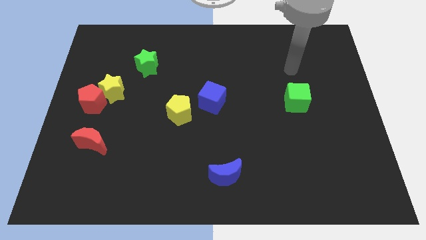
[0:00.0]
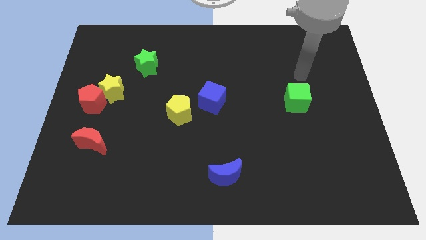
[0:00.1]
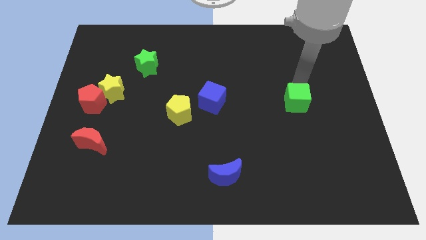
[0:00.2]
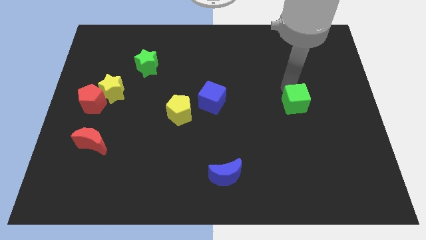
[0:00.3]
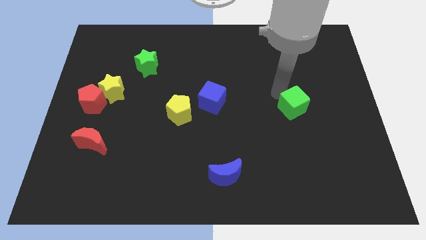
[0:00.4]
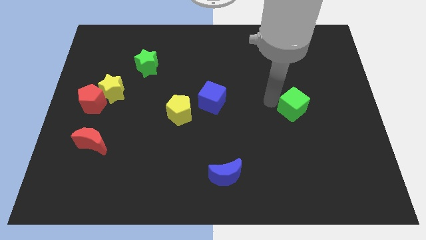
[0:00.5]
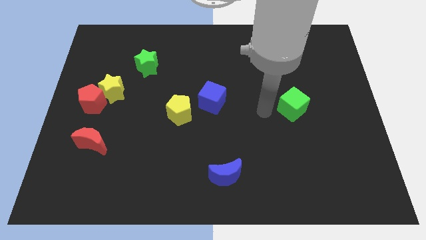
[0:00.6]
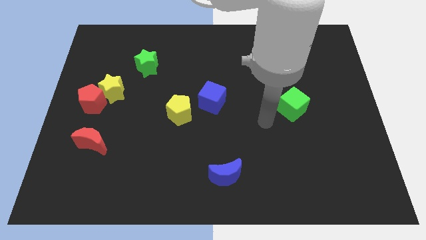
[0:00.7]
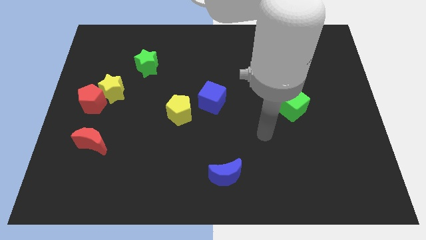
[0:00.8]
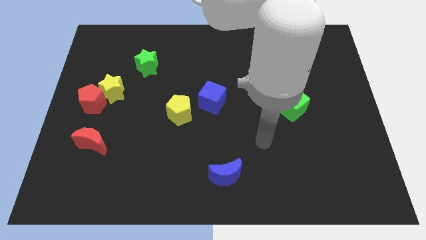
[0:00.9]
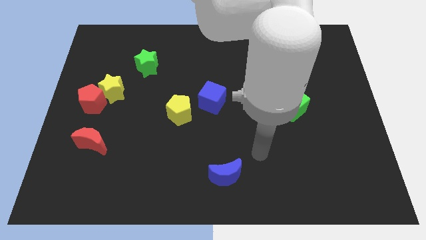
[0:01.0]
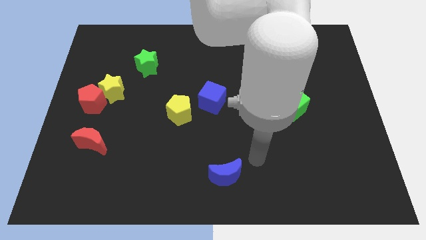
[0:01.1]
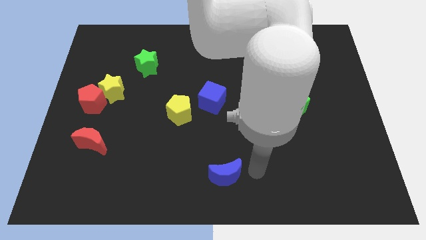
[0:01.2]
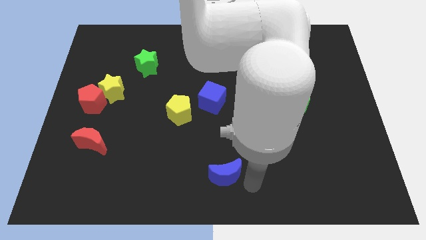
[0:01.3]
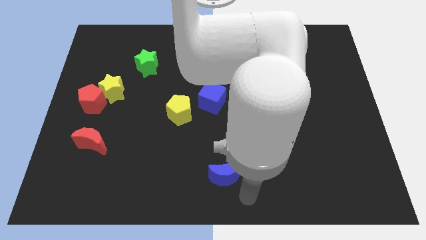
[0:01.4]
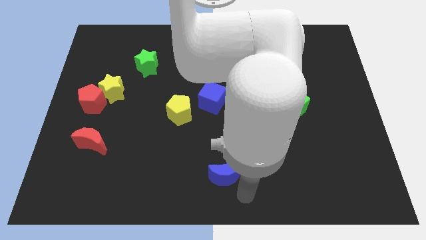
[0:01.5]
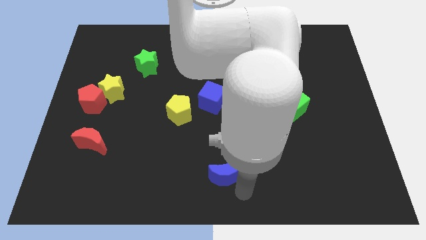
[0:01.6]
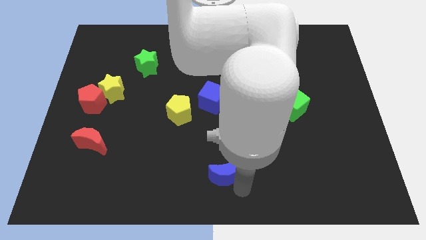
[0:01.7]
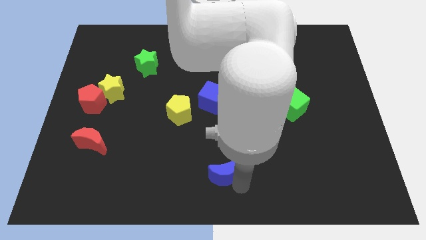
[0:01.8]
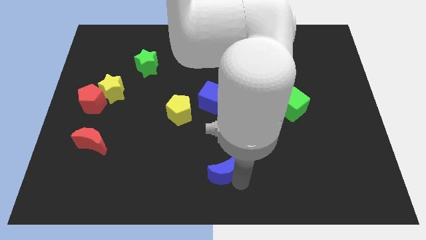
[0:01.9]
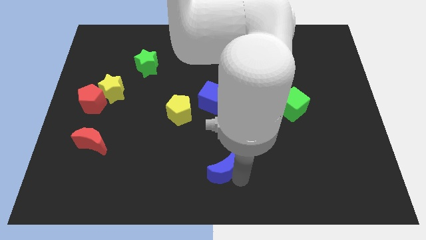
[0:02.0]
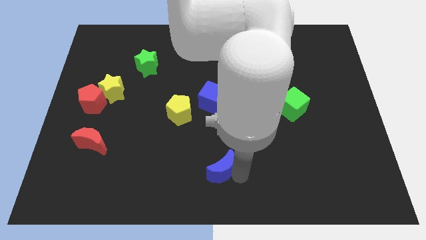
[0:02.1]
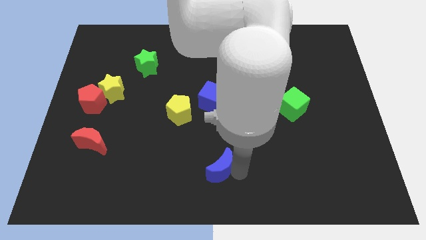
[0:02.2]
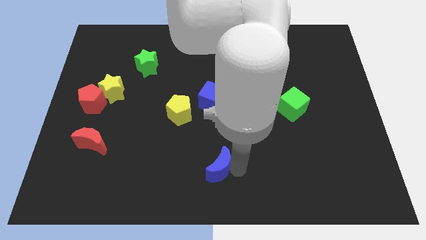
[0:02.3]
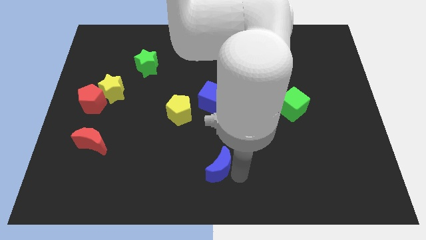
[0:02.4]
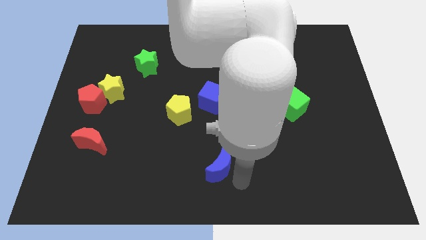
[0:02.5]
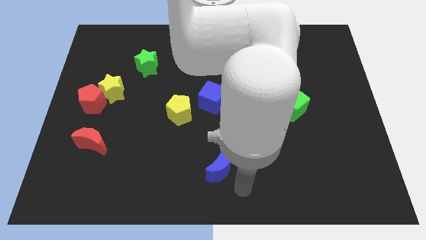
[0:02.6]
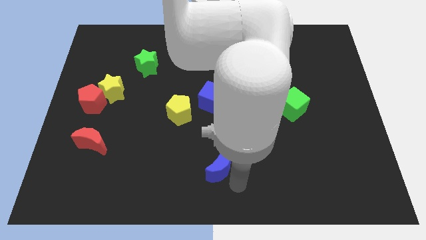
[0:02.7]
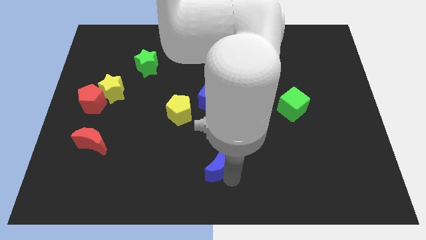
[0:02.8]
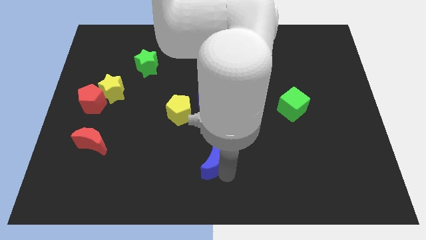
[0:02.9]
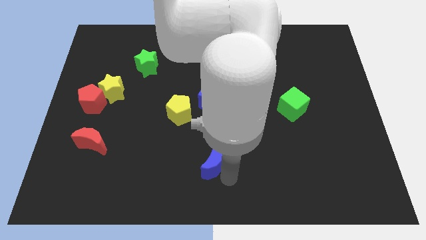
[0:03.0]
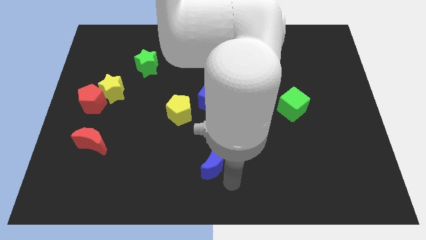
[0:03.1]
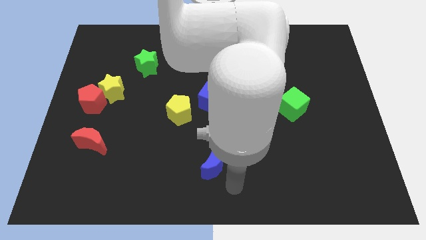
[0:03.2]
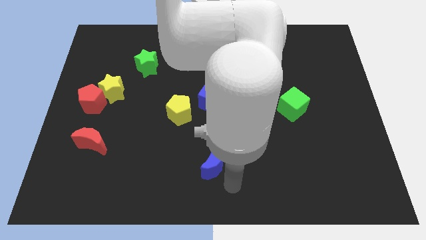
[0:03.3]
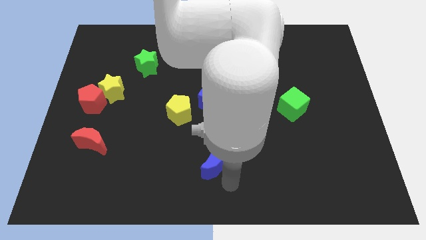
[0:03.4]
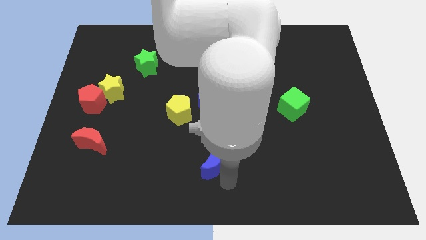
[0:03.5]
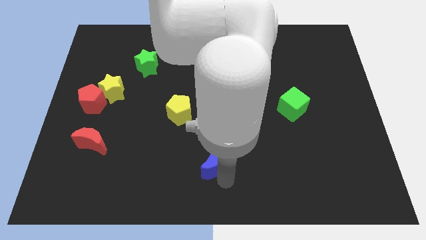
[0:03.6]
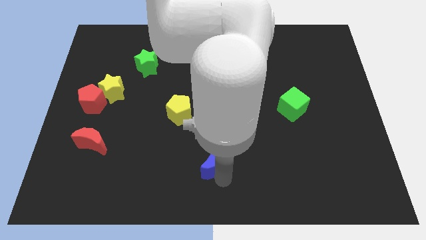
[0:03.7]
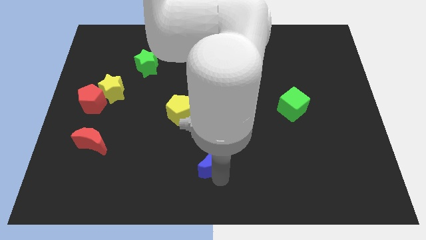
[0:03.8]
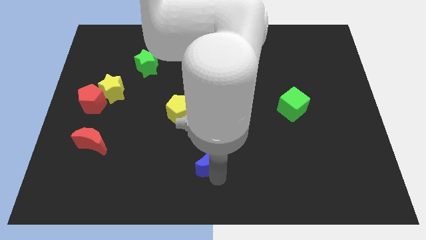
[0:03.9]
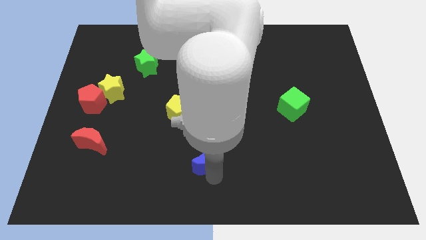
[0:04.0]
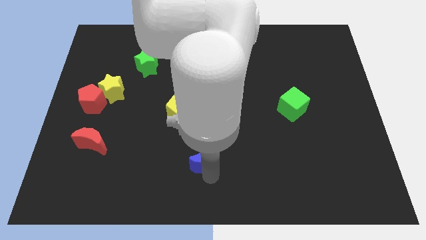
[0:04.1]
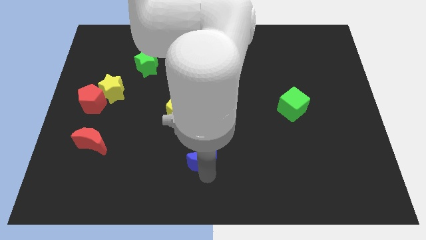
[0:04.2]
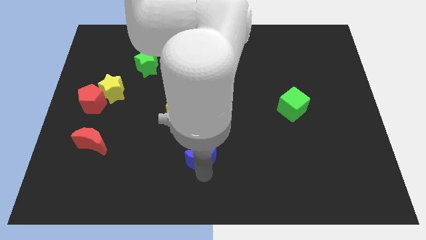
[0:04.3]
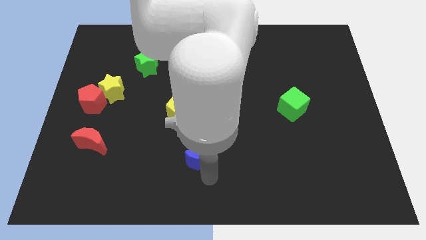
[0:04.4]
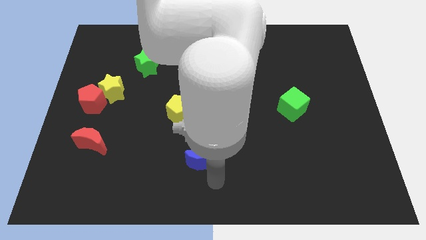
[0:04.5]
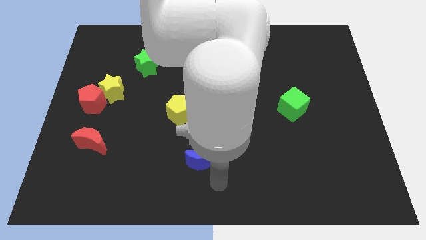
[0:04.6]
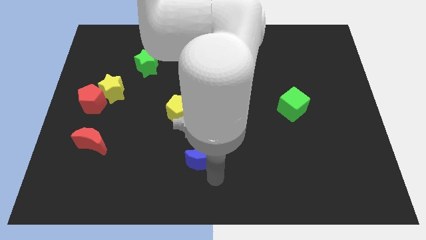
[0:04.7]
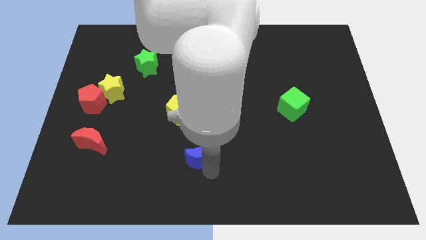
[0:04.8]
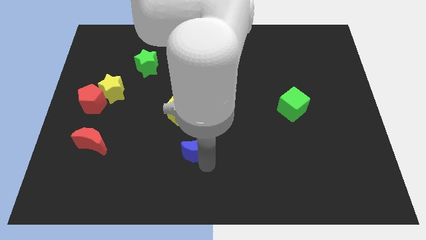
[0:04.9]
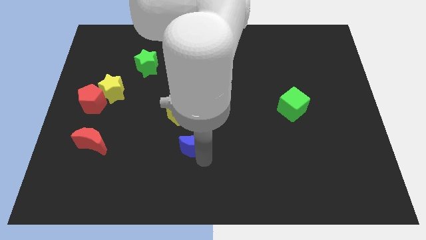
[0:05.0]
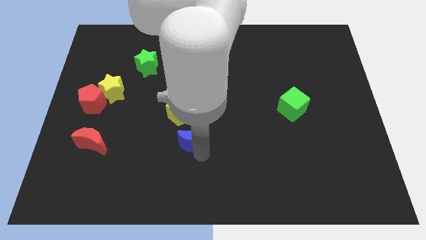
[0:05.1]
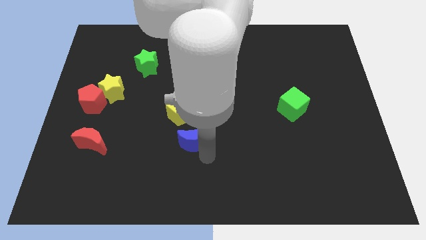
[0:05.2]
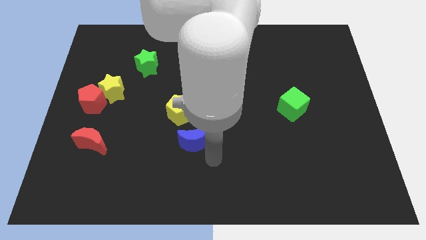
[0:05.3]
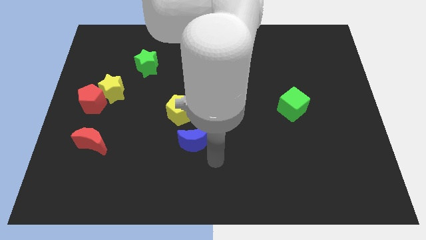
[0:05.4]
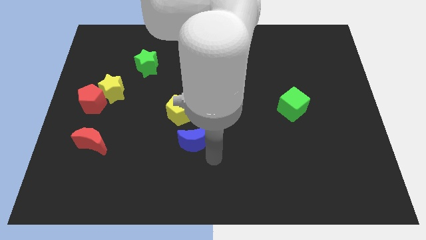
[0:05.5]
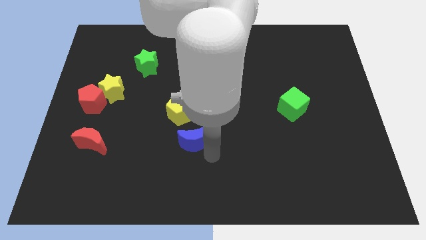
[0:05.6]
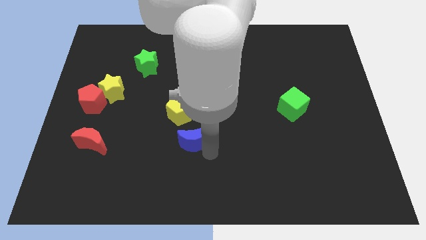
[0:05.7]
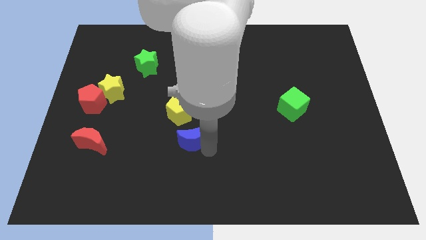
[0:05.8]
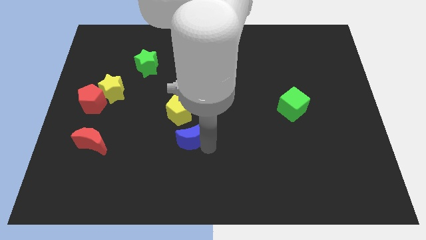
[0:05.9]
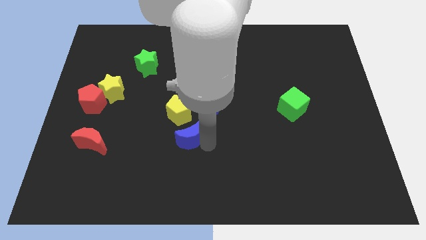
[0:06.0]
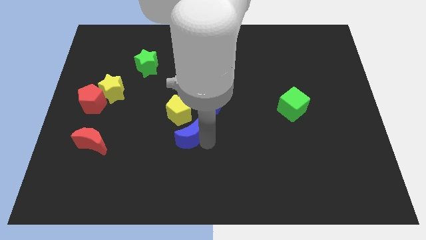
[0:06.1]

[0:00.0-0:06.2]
slide the blue moon to the bottom left of the blue cube

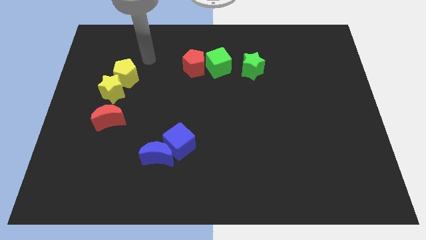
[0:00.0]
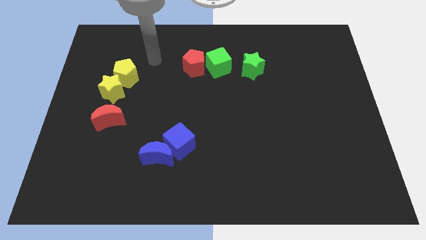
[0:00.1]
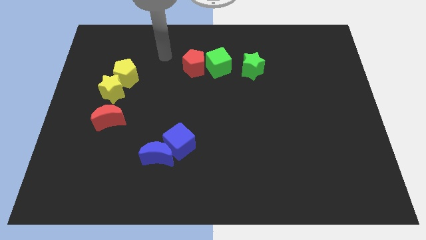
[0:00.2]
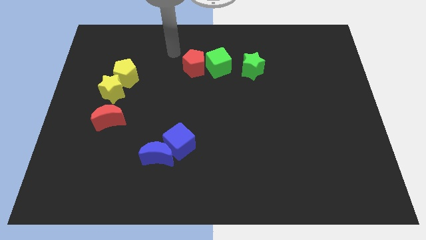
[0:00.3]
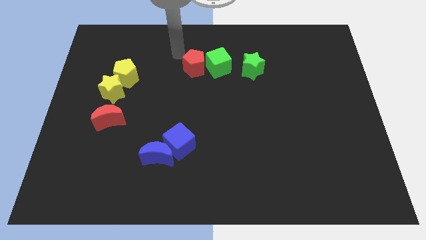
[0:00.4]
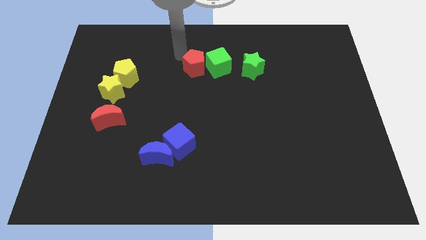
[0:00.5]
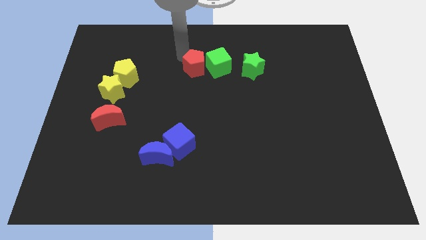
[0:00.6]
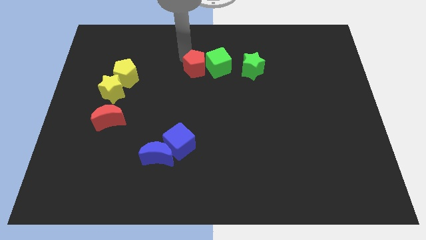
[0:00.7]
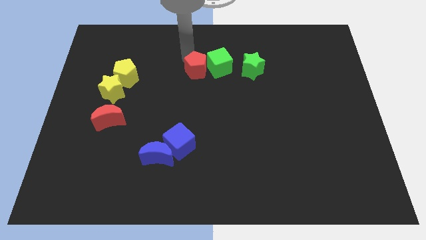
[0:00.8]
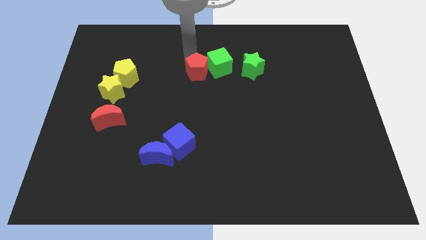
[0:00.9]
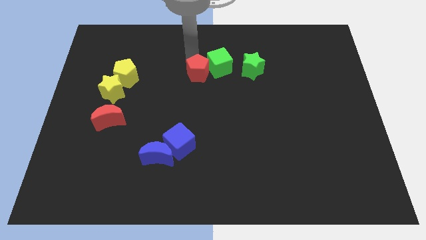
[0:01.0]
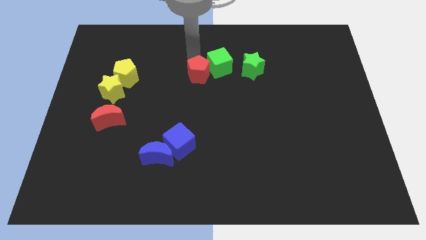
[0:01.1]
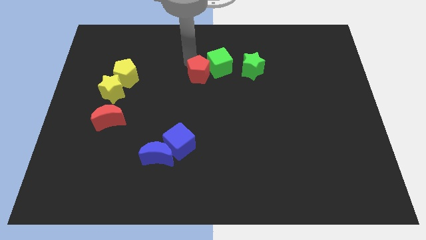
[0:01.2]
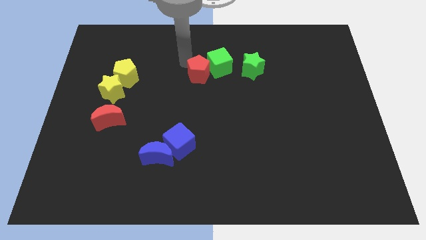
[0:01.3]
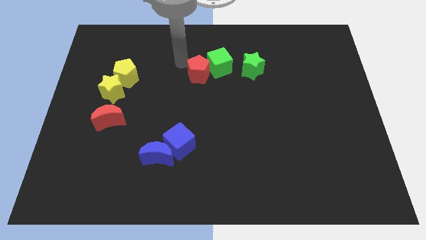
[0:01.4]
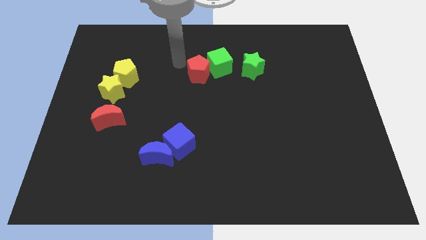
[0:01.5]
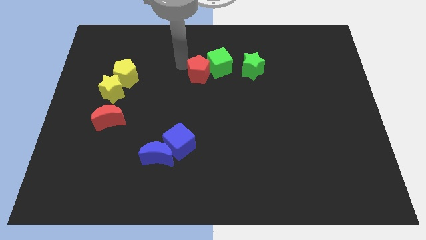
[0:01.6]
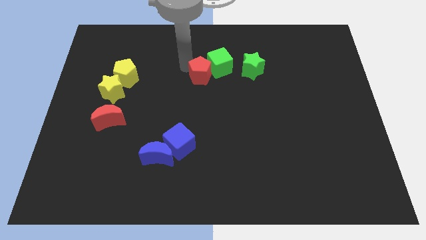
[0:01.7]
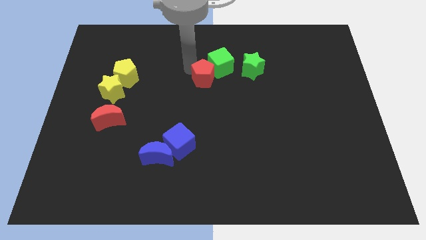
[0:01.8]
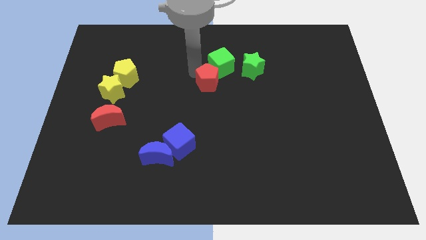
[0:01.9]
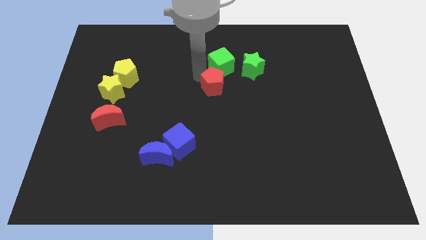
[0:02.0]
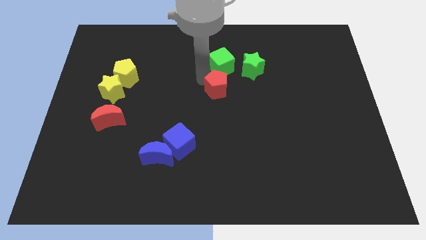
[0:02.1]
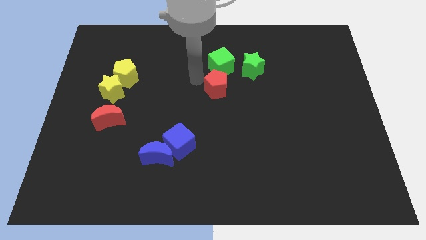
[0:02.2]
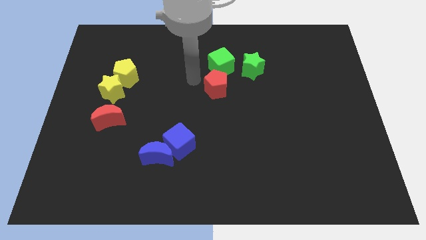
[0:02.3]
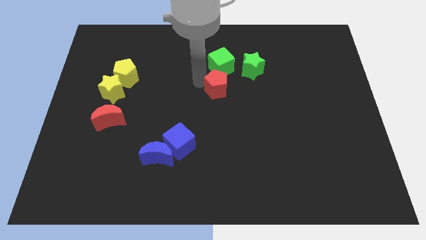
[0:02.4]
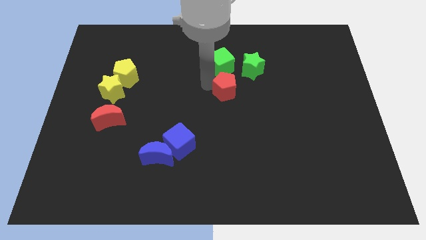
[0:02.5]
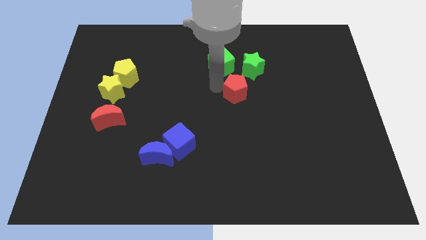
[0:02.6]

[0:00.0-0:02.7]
push the red pentagon to the bottom side of the green star
